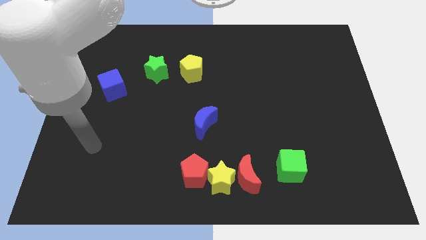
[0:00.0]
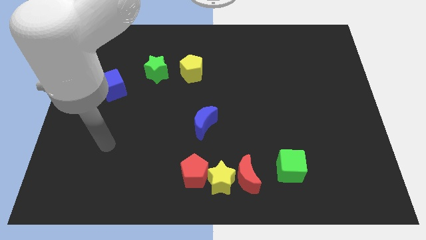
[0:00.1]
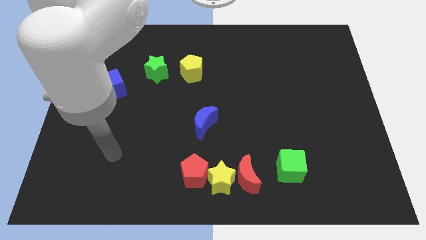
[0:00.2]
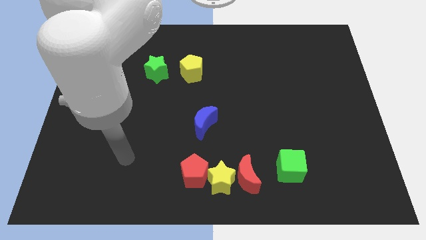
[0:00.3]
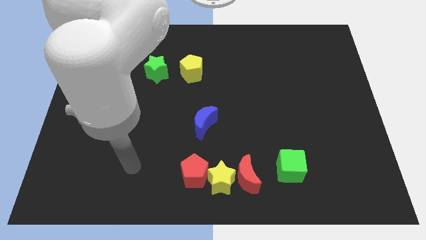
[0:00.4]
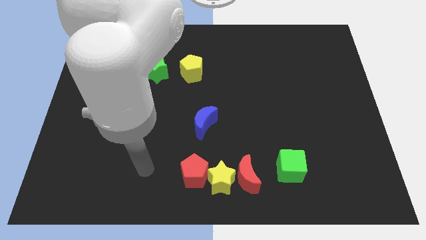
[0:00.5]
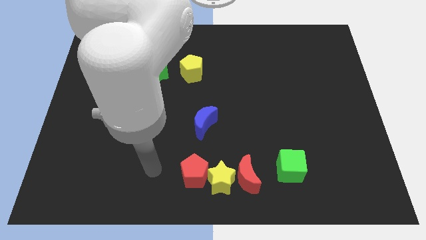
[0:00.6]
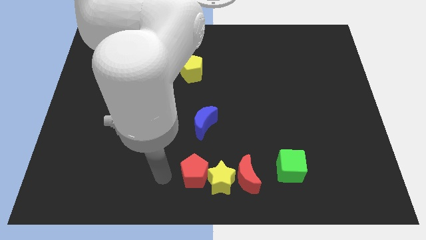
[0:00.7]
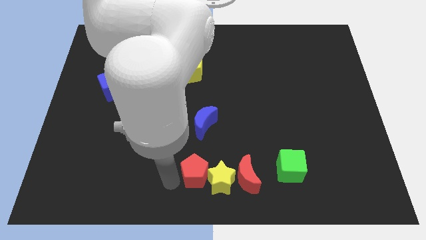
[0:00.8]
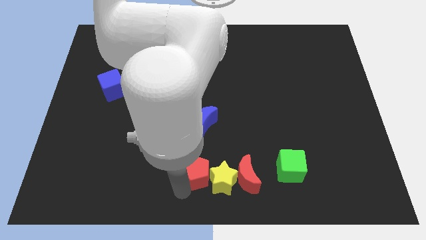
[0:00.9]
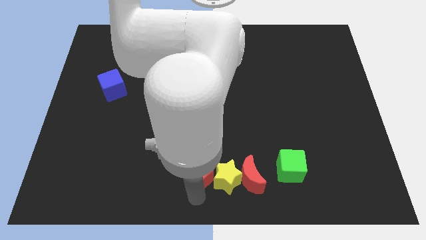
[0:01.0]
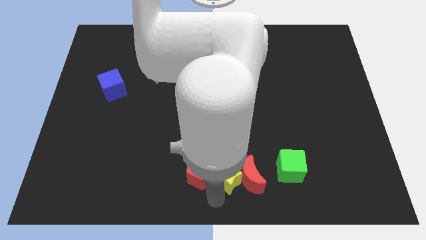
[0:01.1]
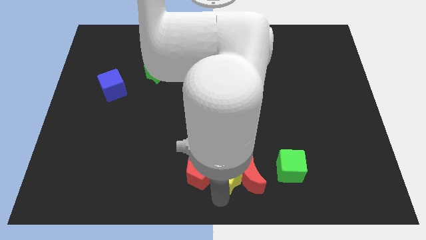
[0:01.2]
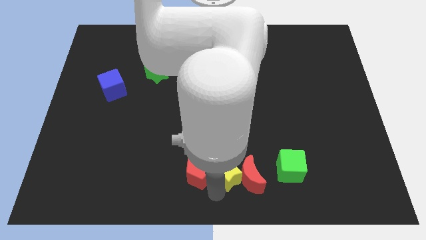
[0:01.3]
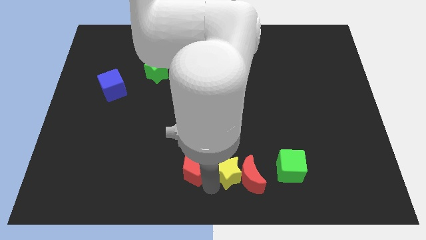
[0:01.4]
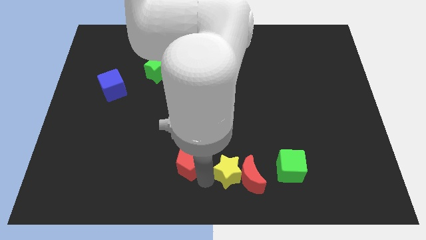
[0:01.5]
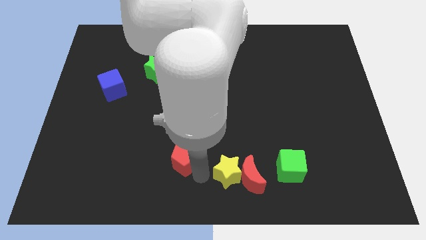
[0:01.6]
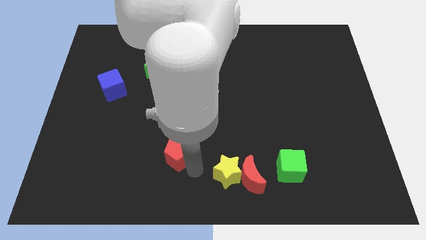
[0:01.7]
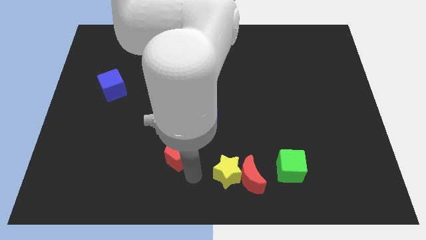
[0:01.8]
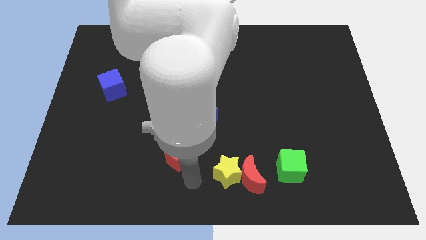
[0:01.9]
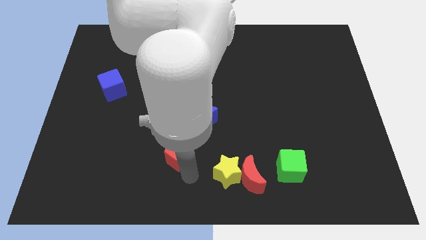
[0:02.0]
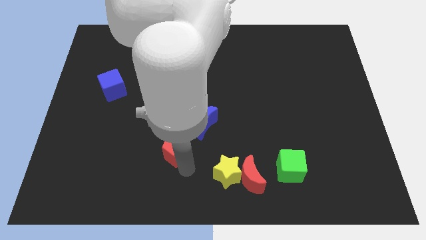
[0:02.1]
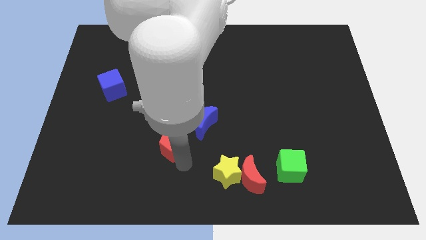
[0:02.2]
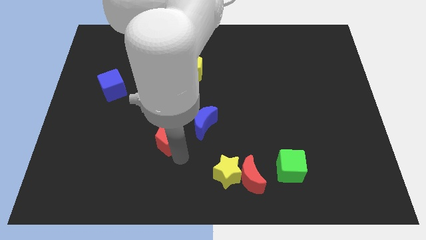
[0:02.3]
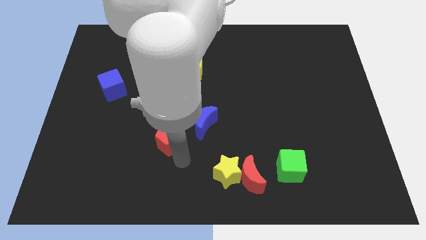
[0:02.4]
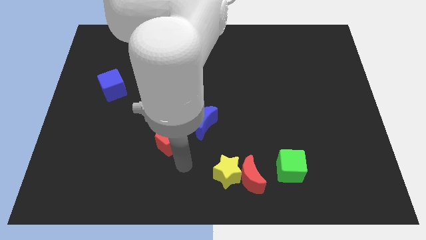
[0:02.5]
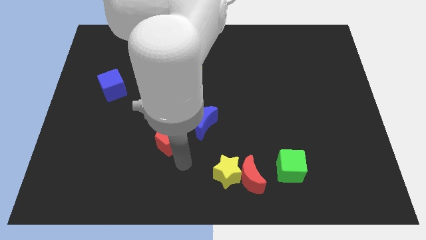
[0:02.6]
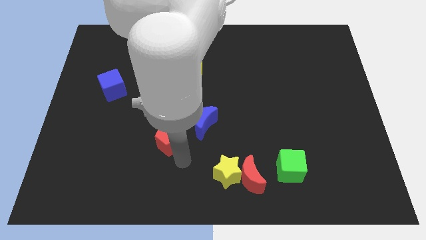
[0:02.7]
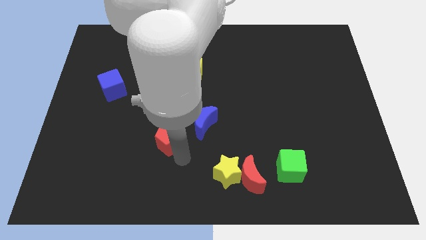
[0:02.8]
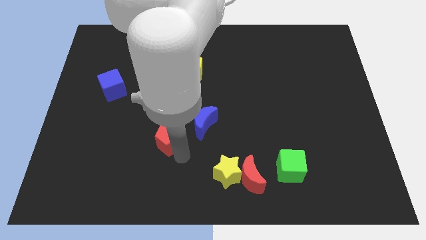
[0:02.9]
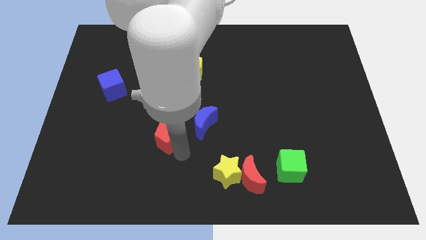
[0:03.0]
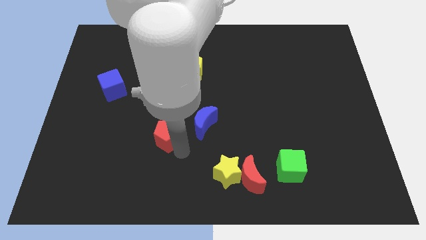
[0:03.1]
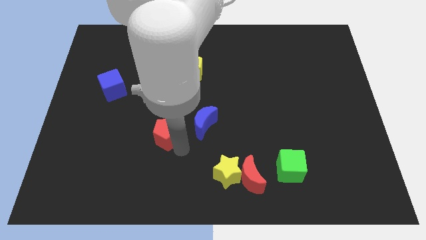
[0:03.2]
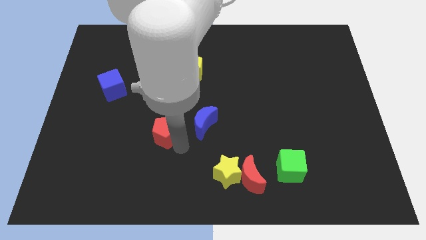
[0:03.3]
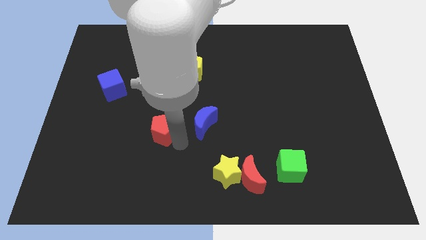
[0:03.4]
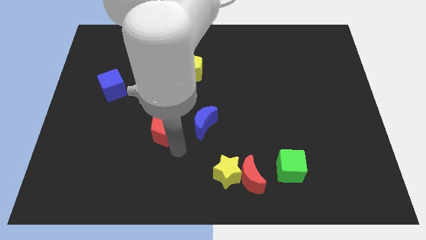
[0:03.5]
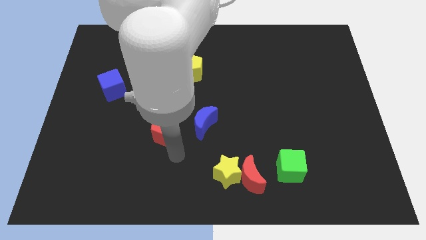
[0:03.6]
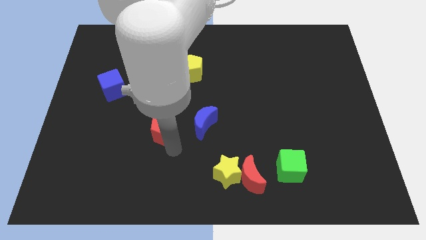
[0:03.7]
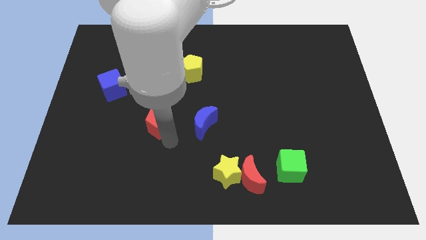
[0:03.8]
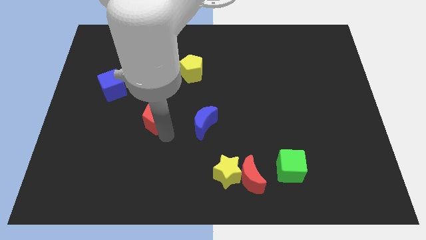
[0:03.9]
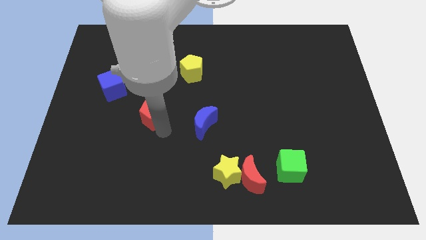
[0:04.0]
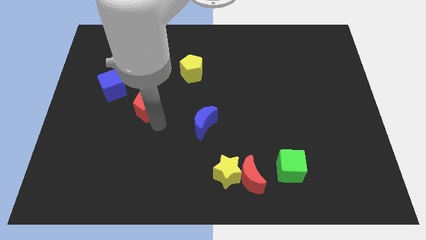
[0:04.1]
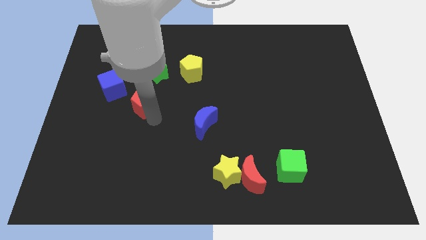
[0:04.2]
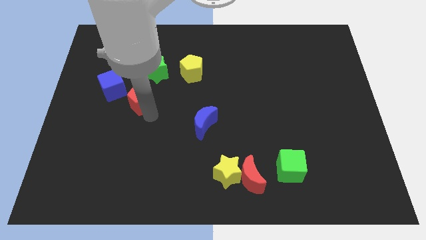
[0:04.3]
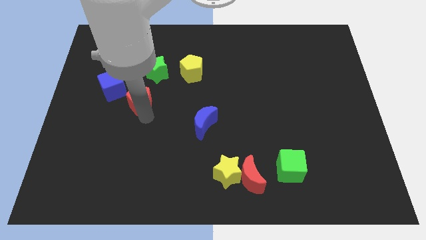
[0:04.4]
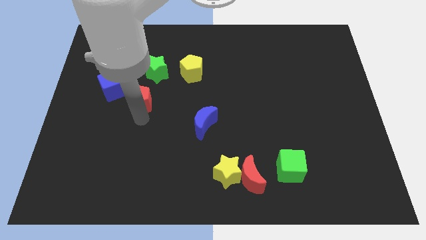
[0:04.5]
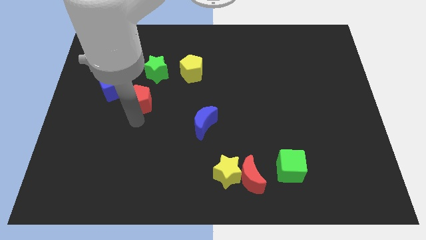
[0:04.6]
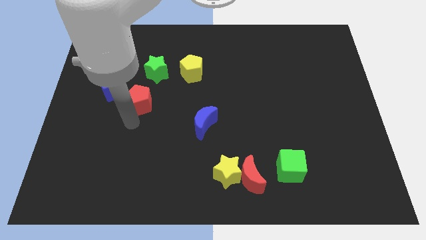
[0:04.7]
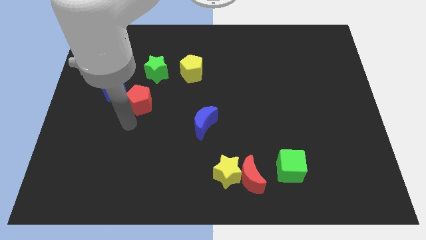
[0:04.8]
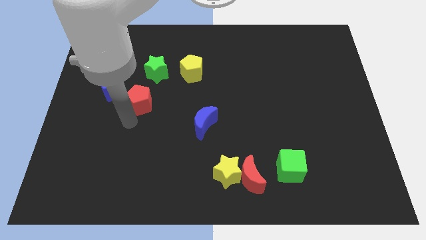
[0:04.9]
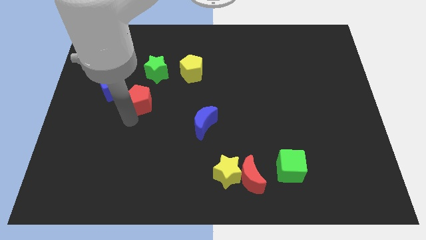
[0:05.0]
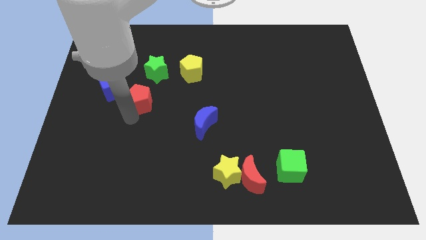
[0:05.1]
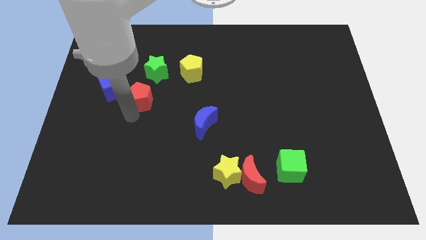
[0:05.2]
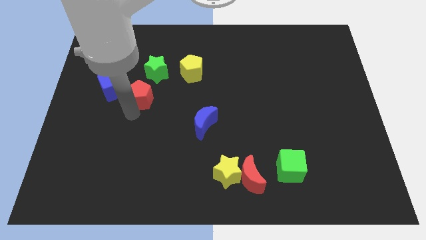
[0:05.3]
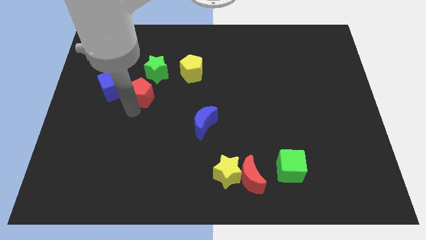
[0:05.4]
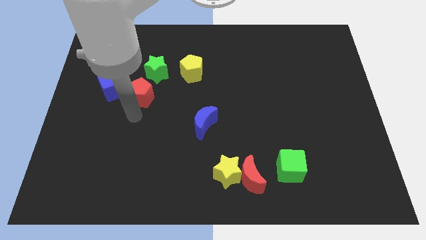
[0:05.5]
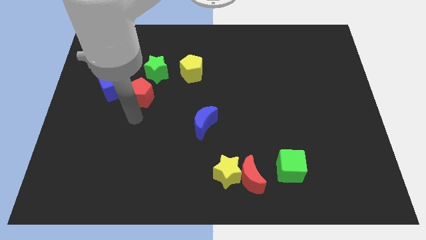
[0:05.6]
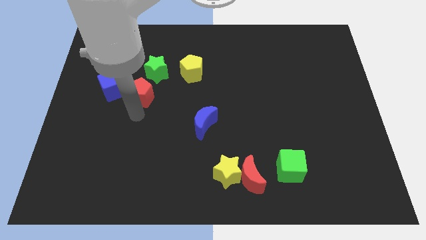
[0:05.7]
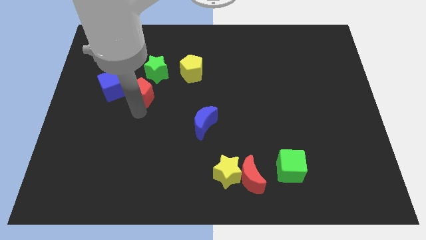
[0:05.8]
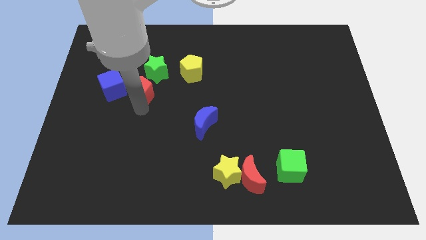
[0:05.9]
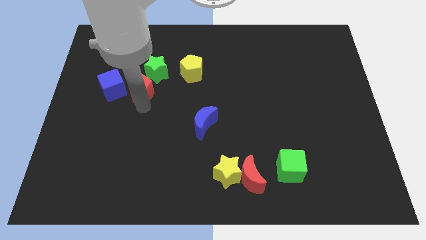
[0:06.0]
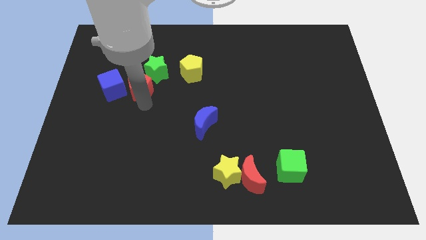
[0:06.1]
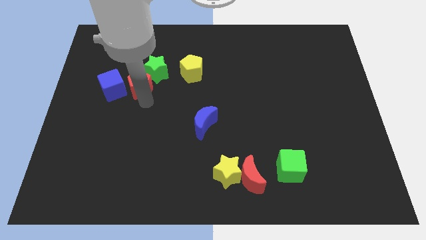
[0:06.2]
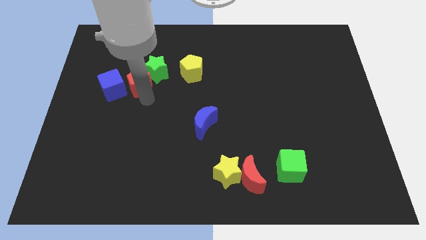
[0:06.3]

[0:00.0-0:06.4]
push the red pentagon to the left of the yellow pentagon
